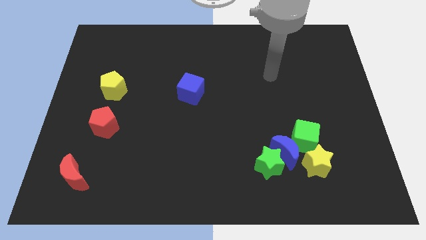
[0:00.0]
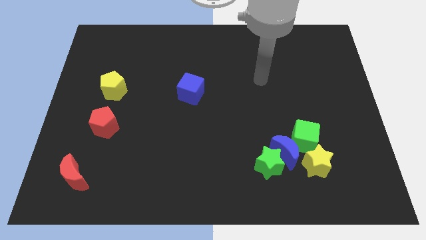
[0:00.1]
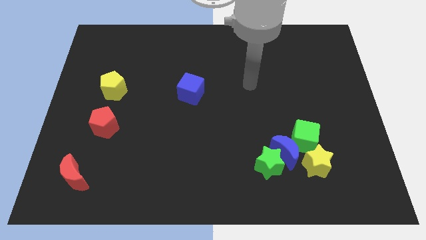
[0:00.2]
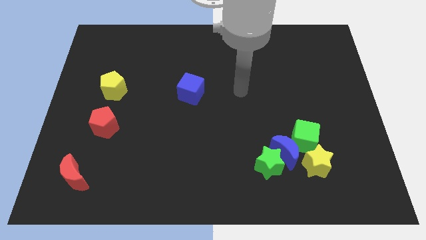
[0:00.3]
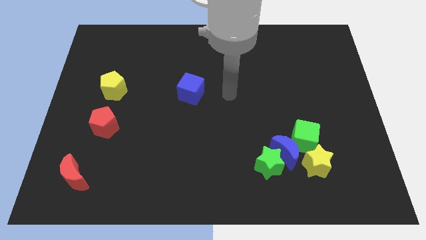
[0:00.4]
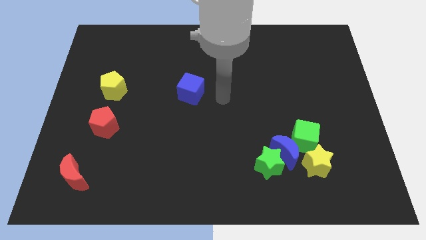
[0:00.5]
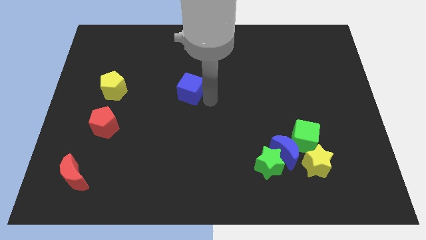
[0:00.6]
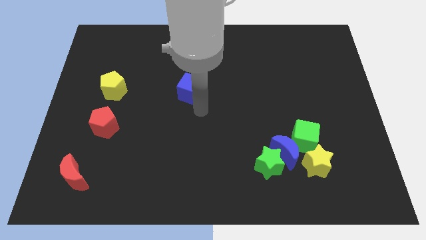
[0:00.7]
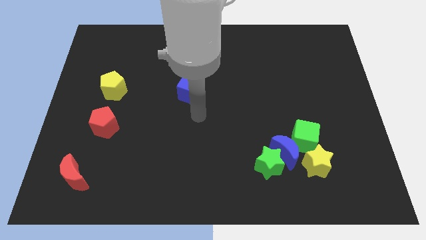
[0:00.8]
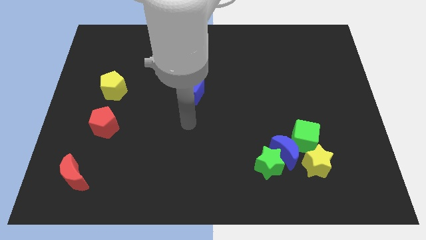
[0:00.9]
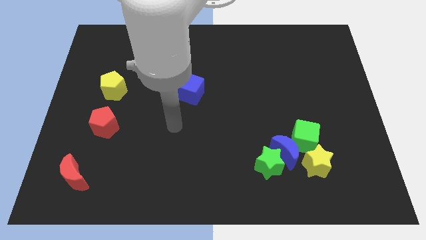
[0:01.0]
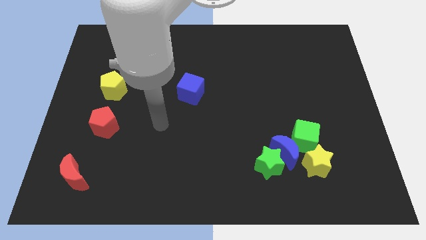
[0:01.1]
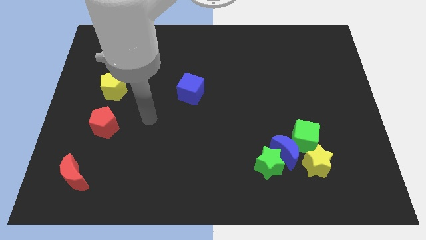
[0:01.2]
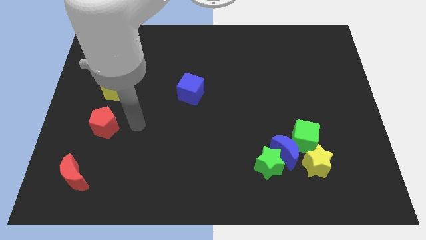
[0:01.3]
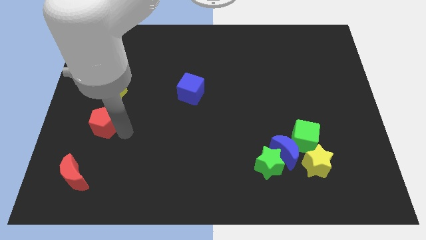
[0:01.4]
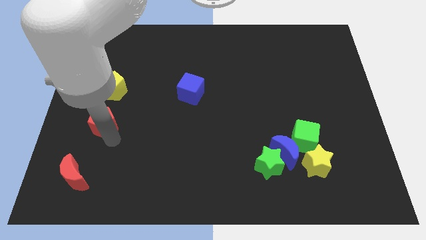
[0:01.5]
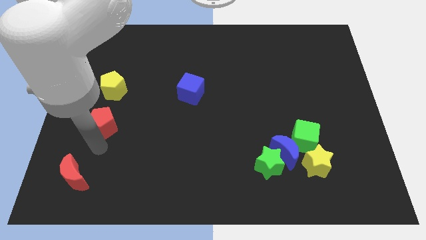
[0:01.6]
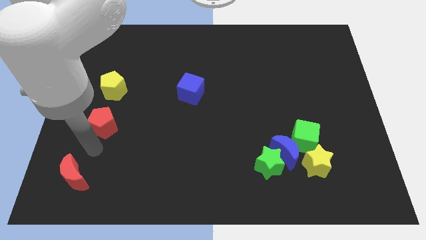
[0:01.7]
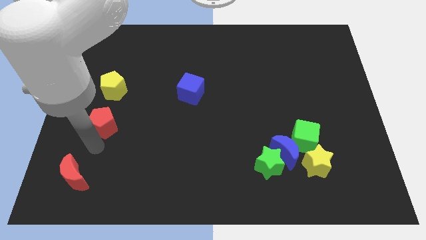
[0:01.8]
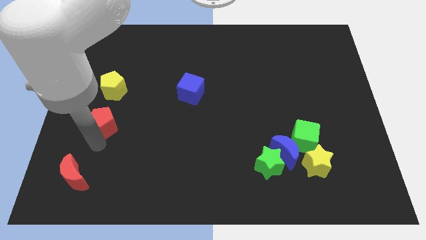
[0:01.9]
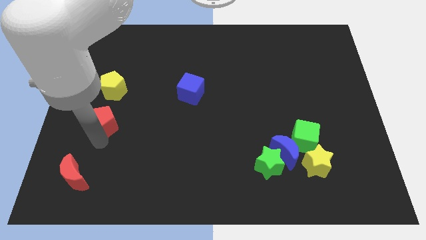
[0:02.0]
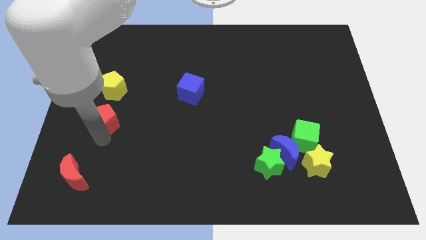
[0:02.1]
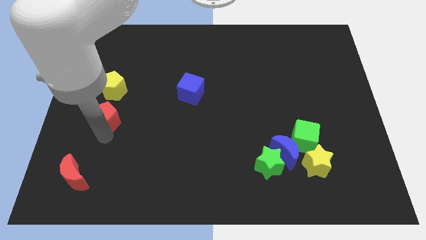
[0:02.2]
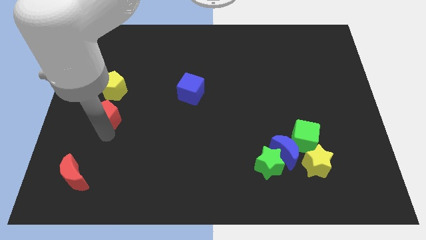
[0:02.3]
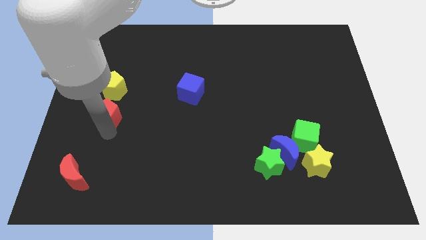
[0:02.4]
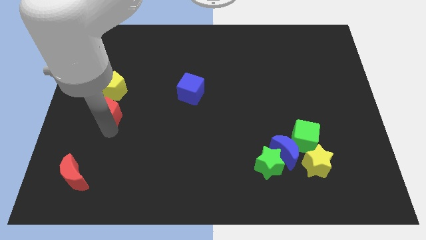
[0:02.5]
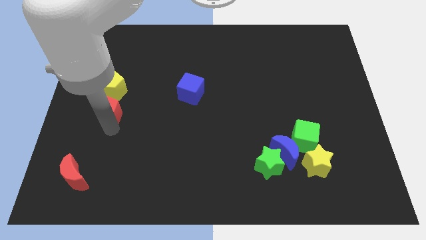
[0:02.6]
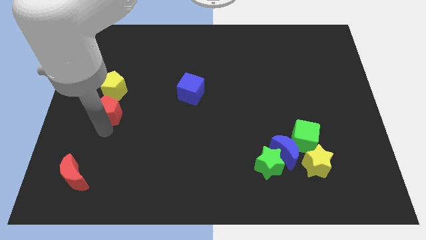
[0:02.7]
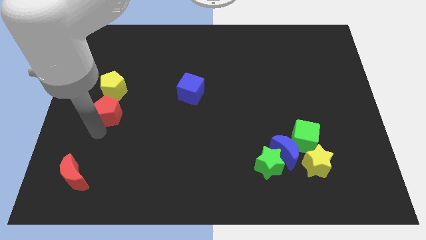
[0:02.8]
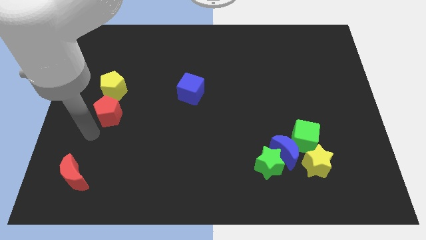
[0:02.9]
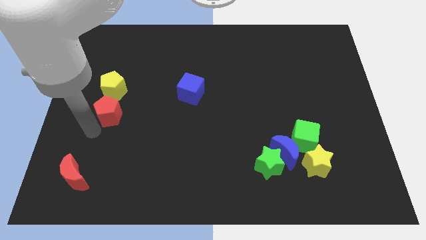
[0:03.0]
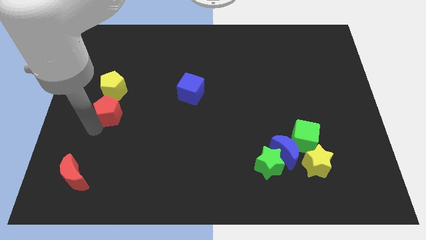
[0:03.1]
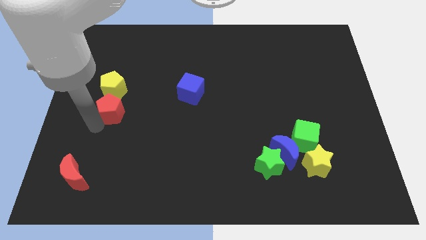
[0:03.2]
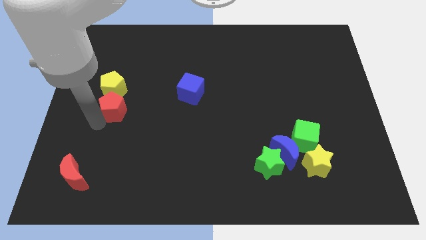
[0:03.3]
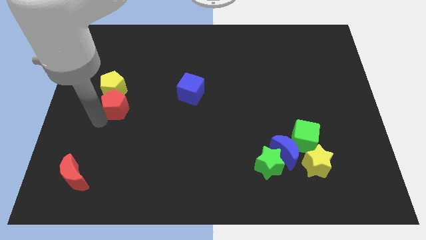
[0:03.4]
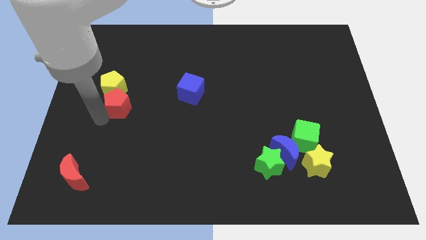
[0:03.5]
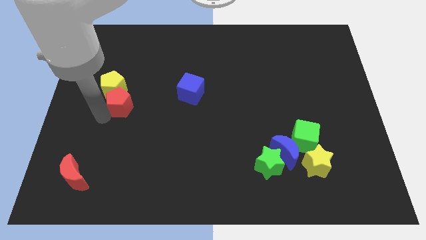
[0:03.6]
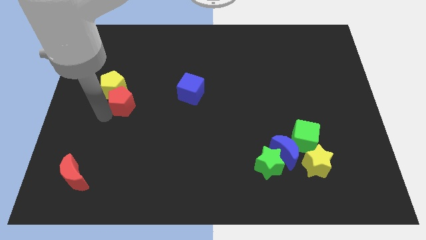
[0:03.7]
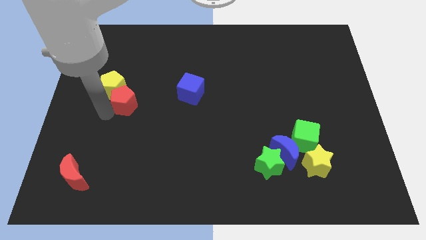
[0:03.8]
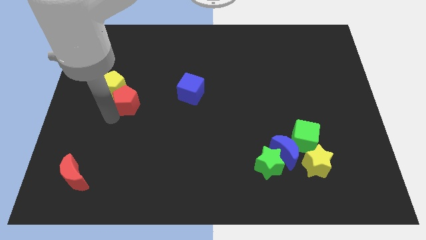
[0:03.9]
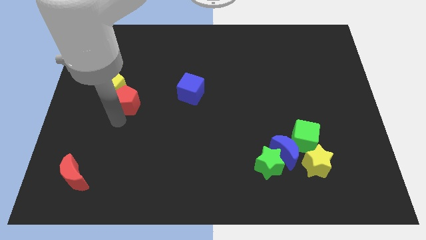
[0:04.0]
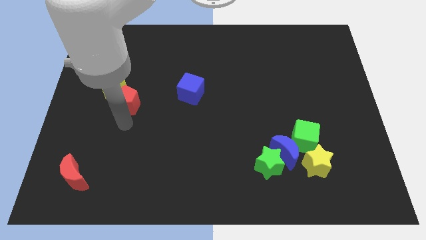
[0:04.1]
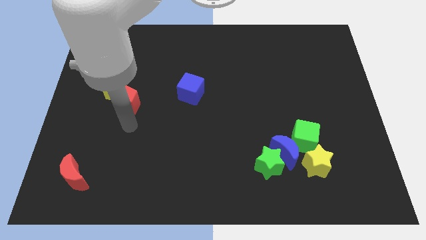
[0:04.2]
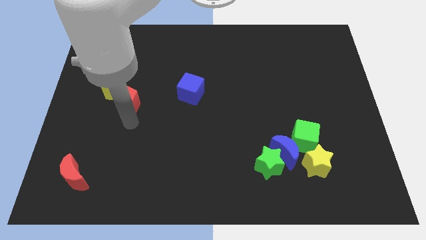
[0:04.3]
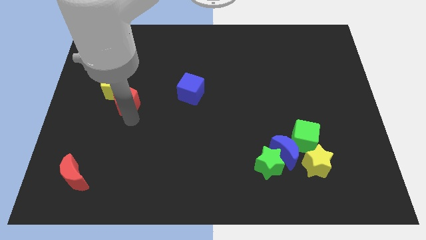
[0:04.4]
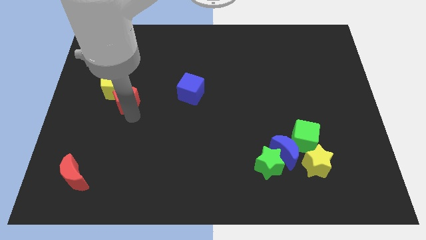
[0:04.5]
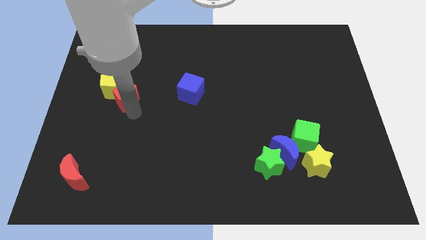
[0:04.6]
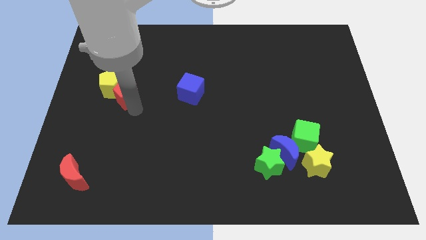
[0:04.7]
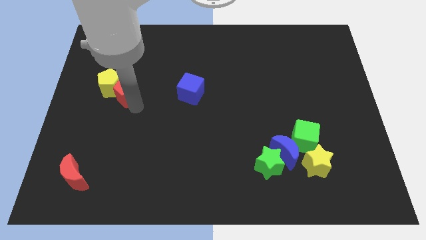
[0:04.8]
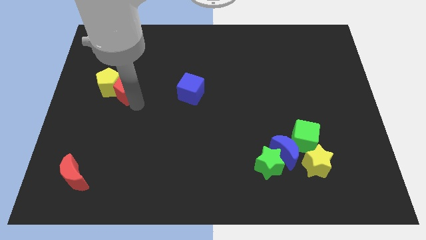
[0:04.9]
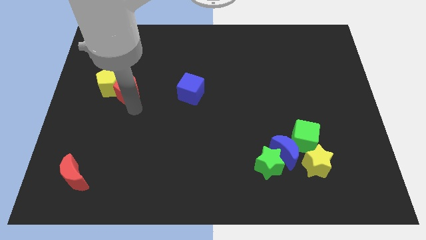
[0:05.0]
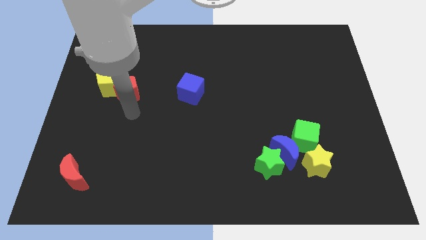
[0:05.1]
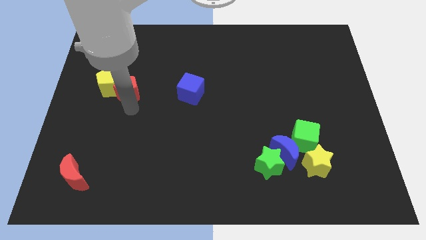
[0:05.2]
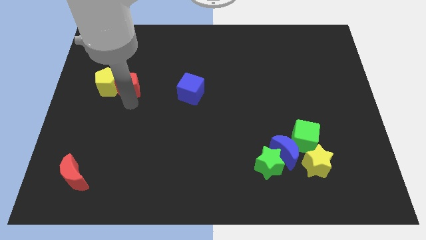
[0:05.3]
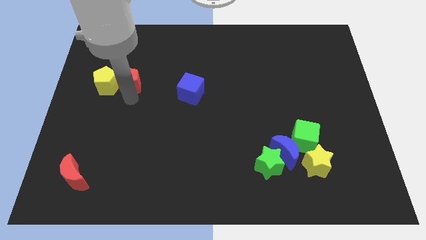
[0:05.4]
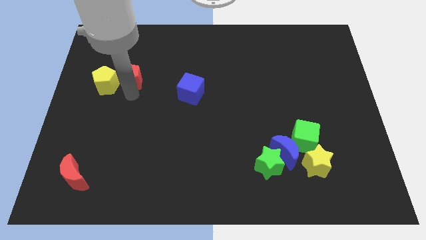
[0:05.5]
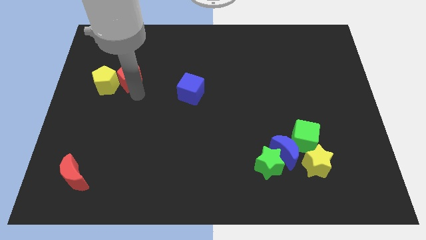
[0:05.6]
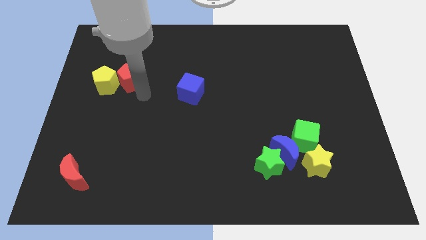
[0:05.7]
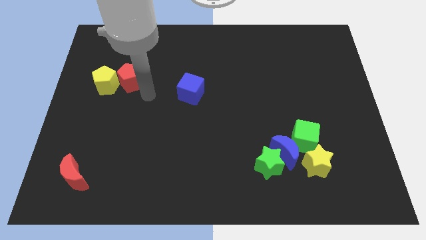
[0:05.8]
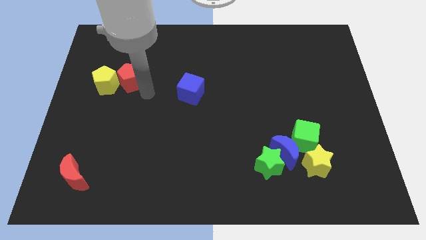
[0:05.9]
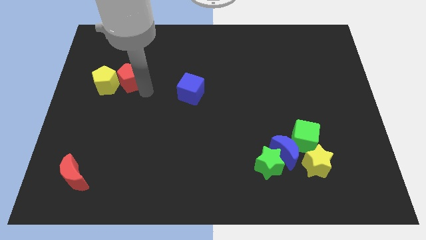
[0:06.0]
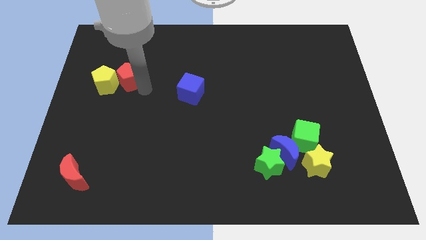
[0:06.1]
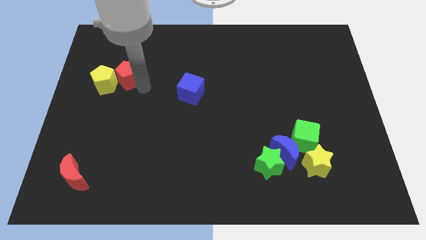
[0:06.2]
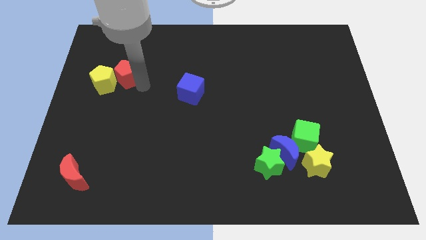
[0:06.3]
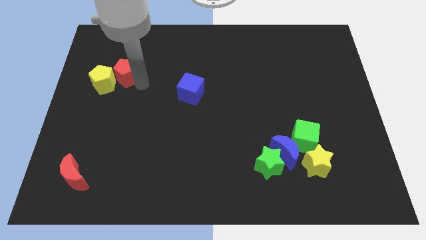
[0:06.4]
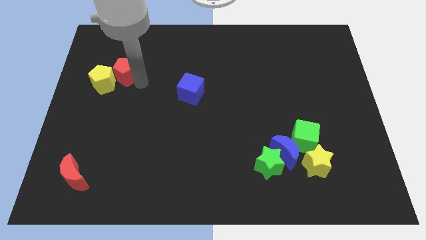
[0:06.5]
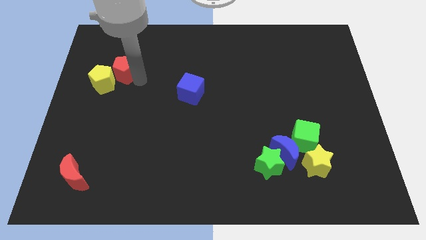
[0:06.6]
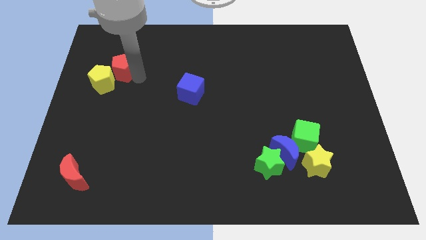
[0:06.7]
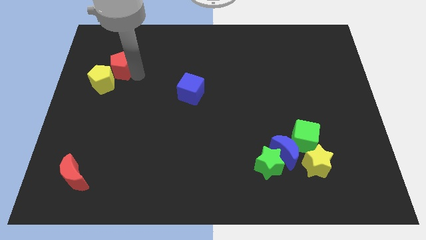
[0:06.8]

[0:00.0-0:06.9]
move the red pentagon above the yellow pentagon

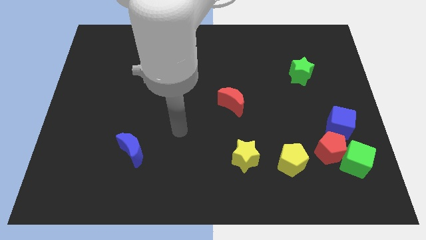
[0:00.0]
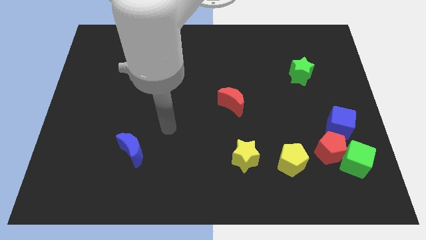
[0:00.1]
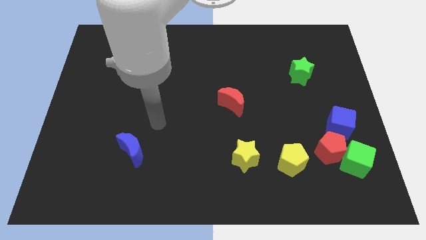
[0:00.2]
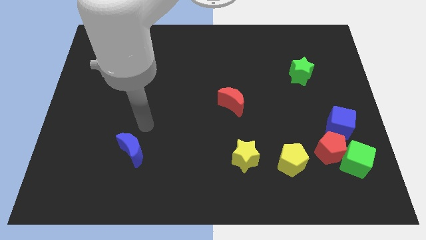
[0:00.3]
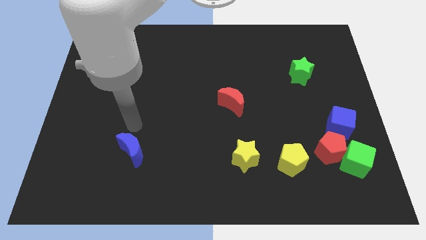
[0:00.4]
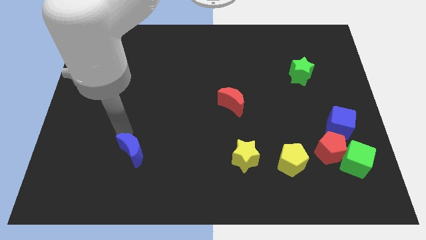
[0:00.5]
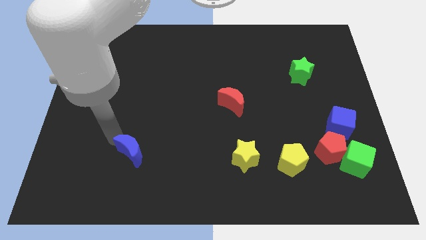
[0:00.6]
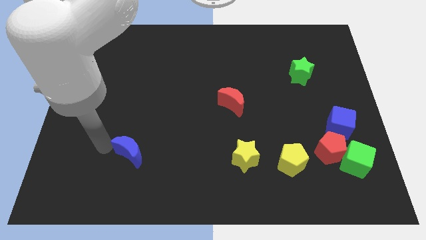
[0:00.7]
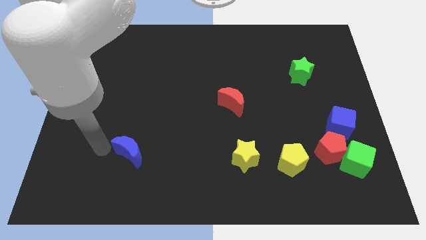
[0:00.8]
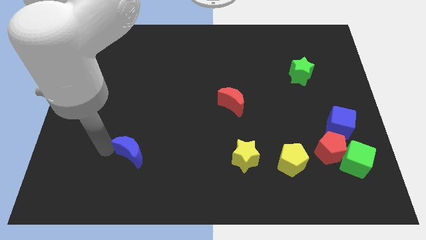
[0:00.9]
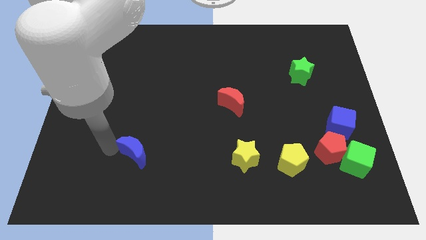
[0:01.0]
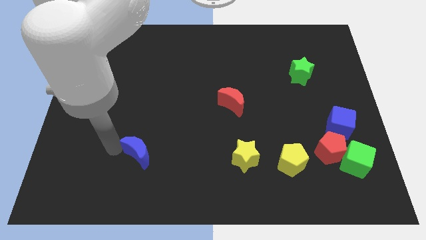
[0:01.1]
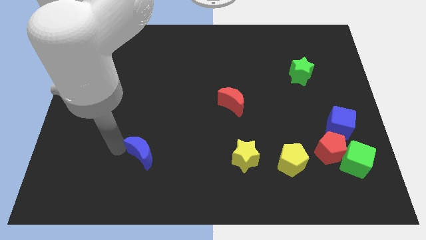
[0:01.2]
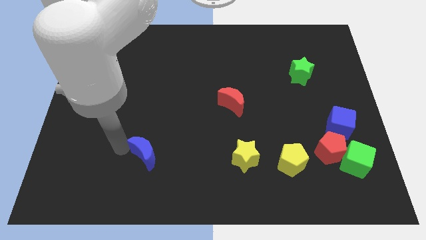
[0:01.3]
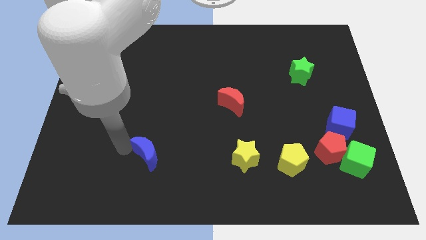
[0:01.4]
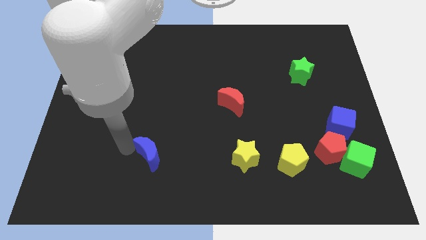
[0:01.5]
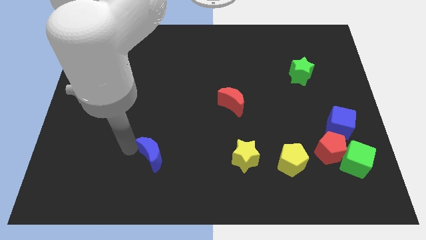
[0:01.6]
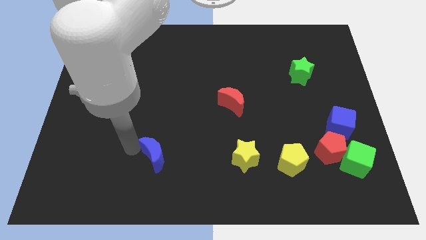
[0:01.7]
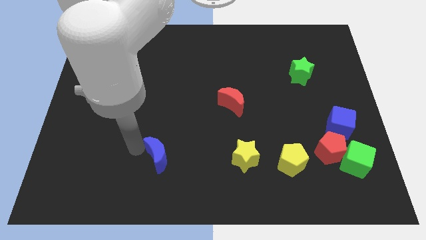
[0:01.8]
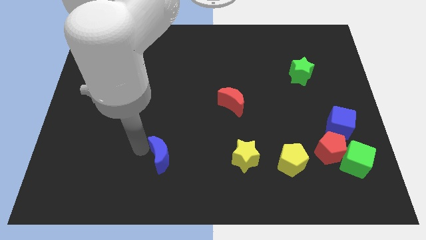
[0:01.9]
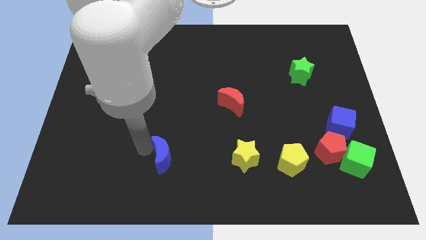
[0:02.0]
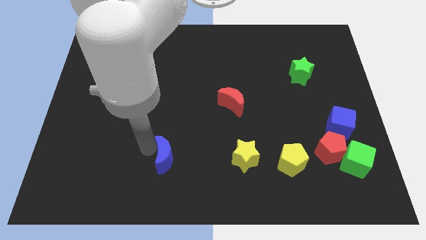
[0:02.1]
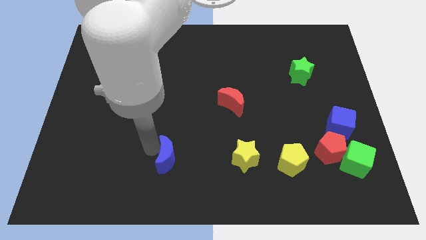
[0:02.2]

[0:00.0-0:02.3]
move the blue moon just left of the yellow star
